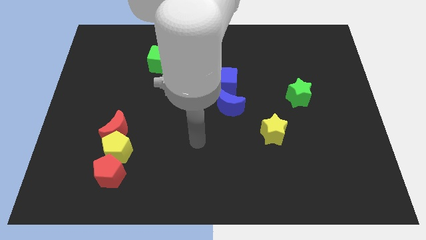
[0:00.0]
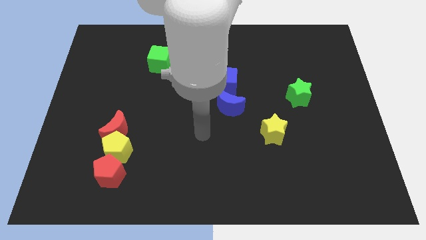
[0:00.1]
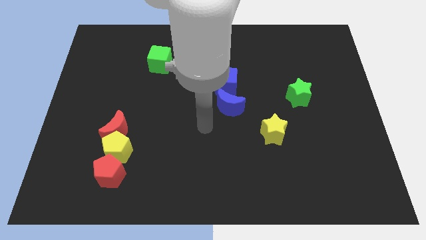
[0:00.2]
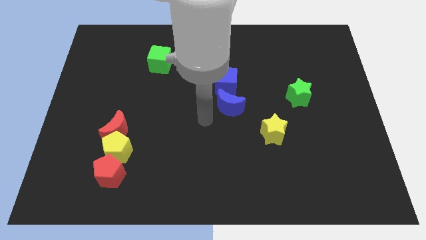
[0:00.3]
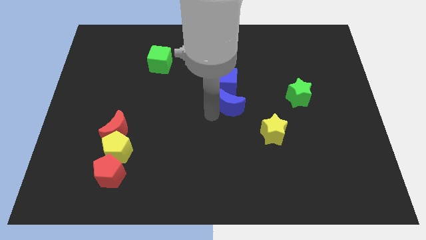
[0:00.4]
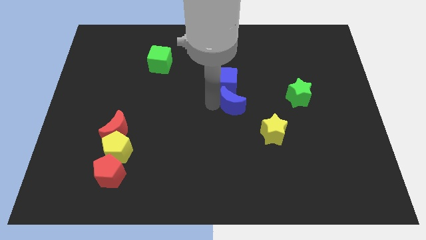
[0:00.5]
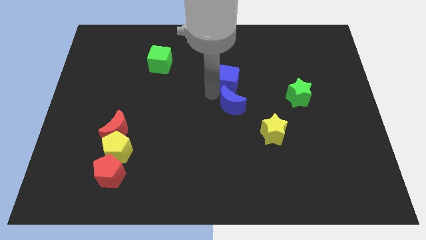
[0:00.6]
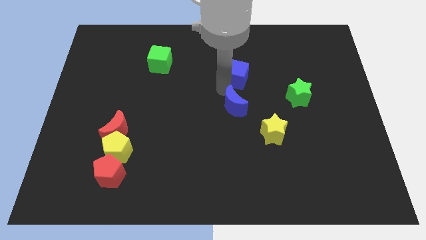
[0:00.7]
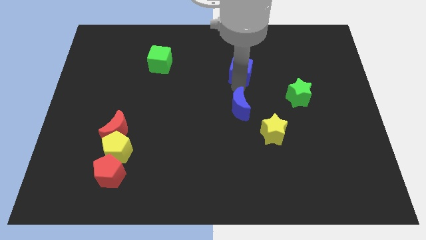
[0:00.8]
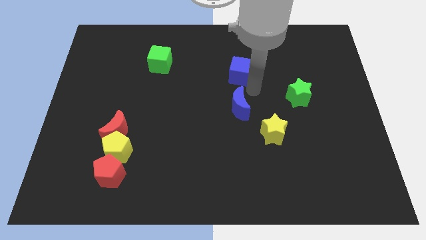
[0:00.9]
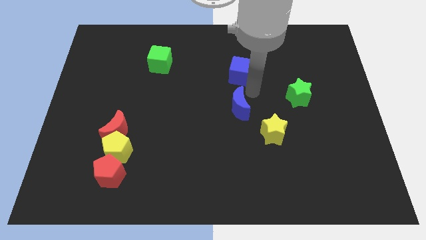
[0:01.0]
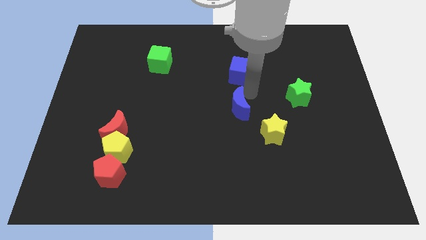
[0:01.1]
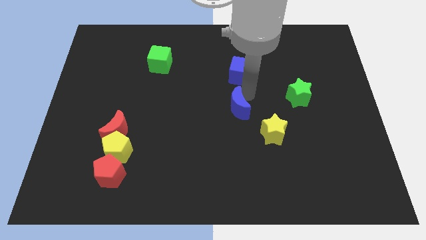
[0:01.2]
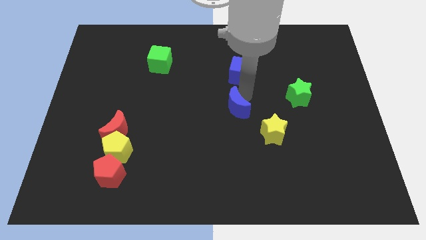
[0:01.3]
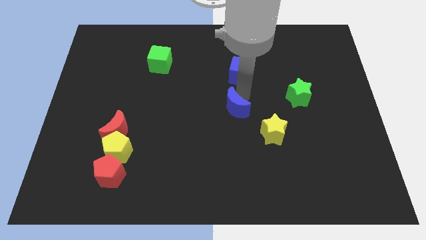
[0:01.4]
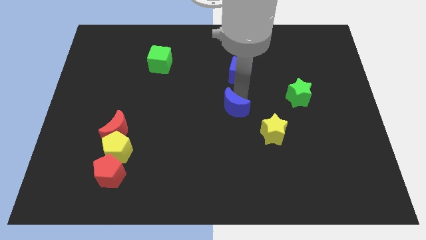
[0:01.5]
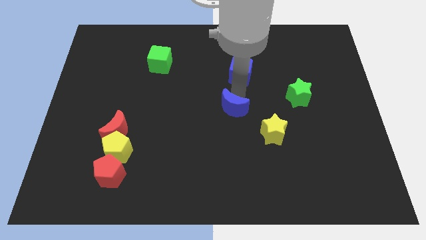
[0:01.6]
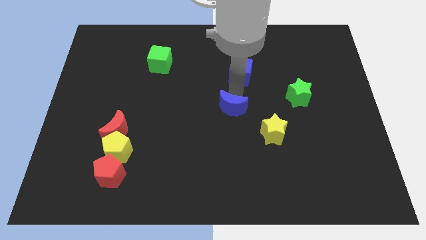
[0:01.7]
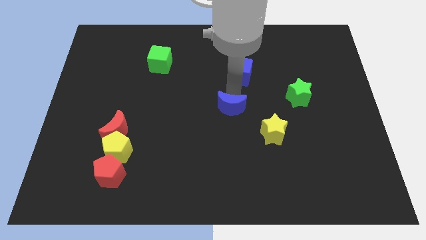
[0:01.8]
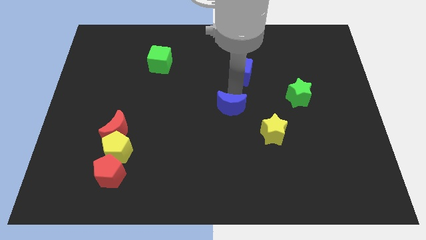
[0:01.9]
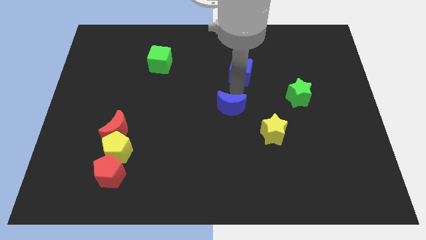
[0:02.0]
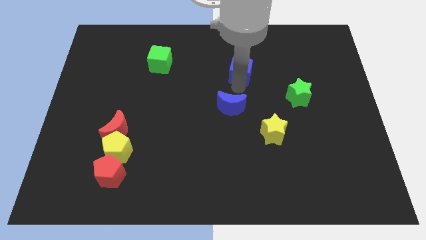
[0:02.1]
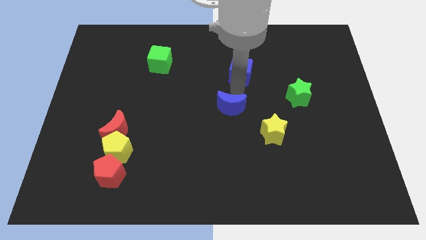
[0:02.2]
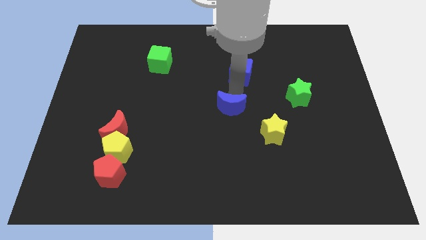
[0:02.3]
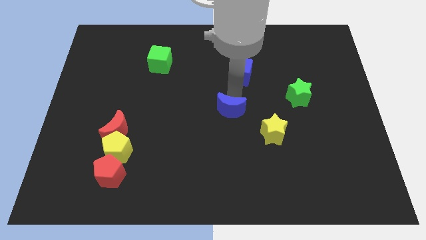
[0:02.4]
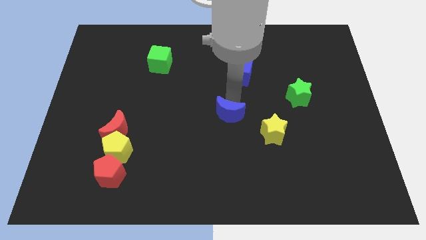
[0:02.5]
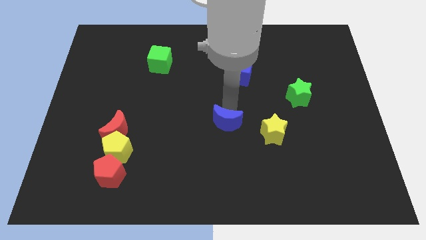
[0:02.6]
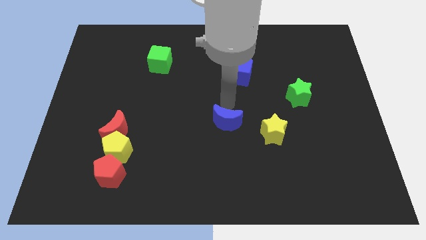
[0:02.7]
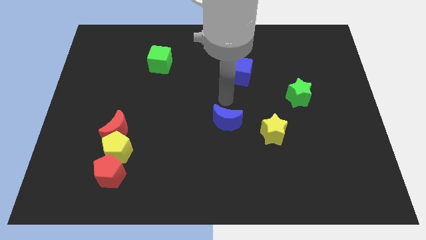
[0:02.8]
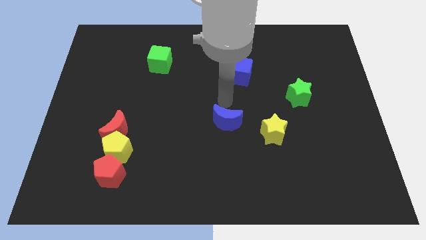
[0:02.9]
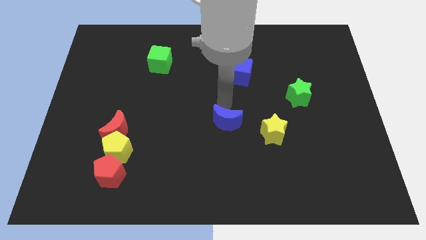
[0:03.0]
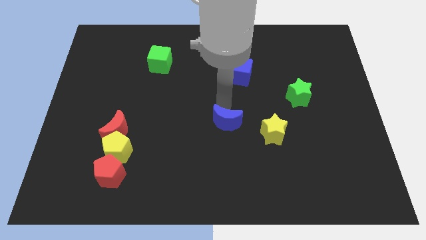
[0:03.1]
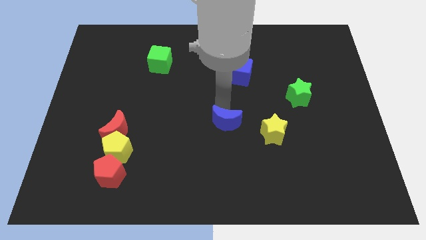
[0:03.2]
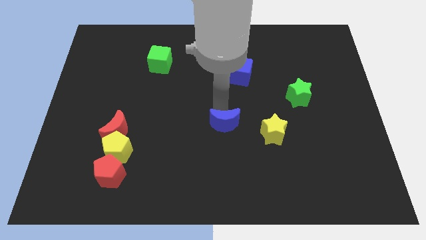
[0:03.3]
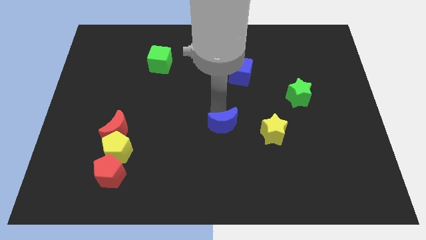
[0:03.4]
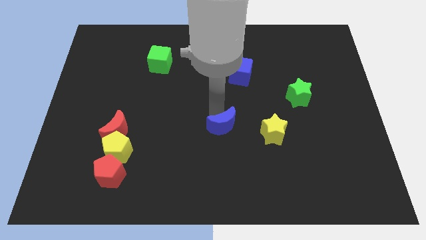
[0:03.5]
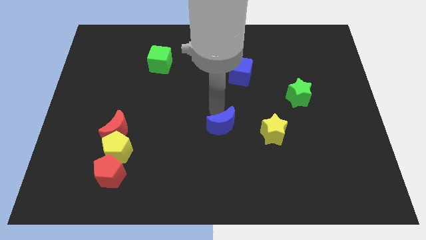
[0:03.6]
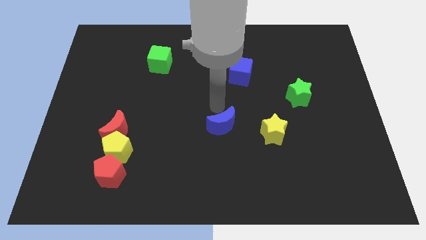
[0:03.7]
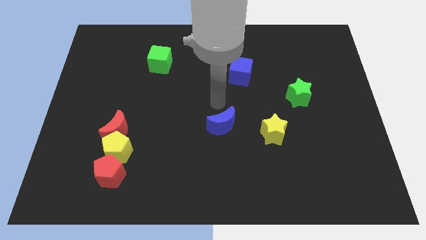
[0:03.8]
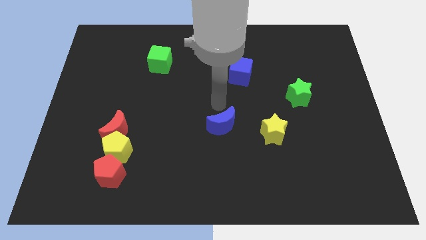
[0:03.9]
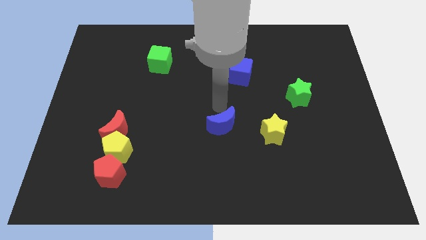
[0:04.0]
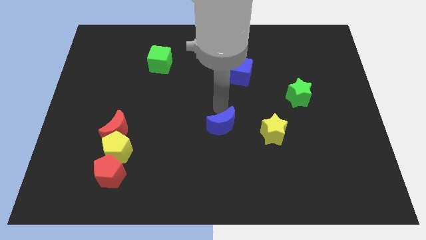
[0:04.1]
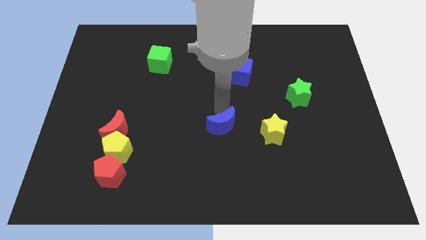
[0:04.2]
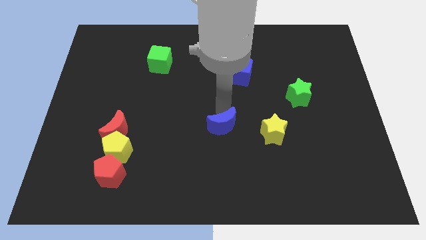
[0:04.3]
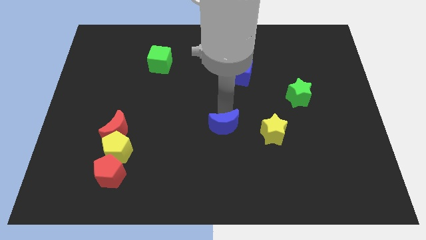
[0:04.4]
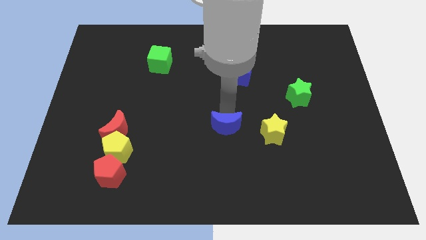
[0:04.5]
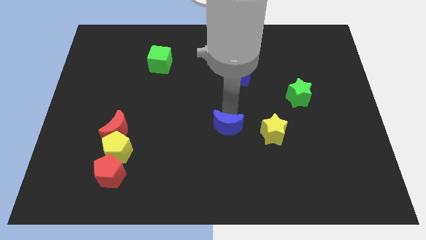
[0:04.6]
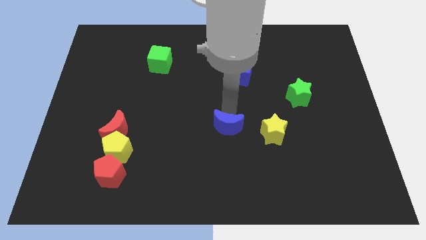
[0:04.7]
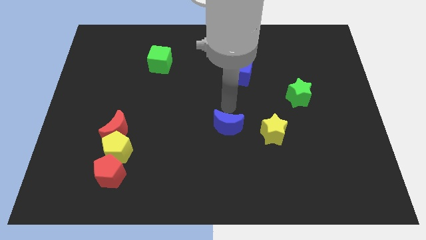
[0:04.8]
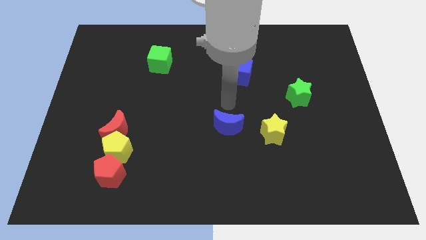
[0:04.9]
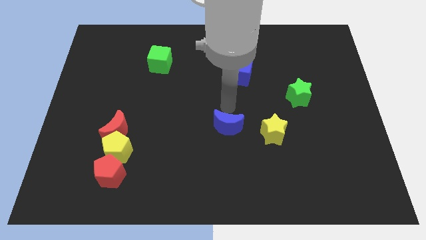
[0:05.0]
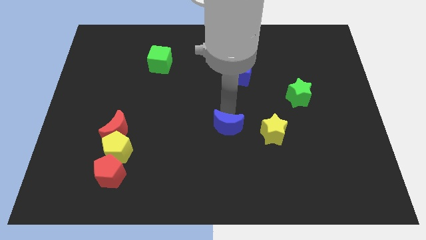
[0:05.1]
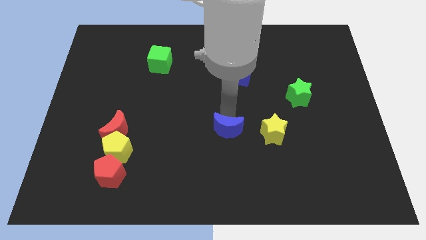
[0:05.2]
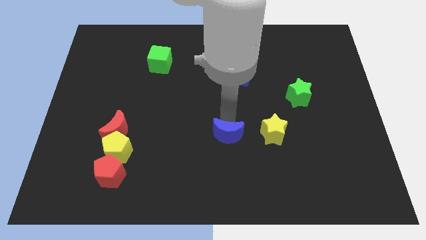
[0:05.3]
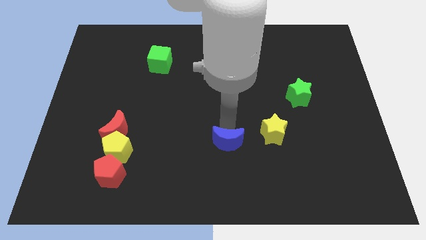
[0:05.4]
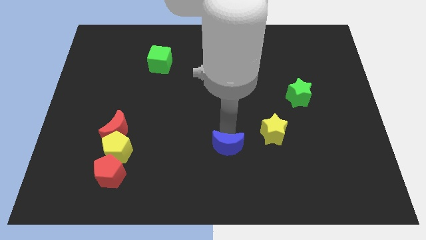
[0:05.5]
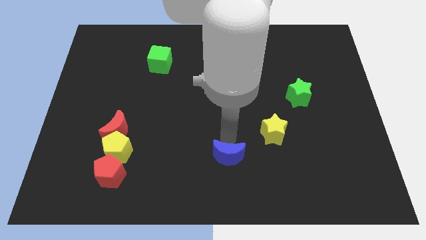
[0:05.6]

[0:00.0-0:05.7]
push the blue moon to the bottom

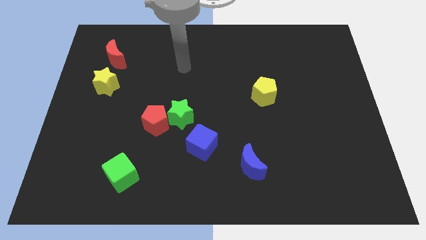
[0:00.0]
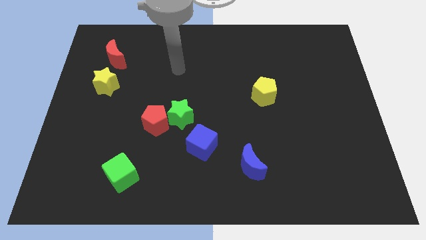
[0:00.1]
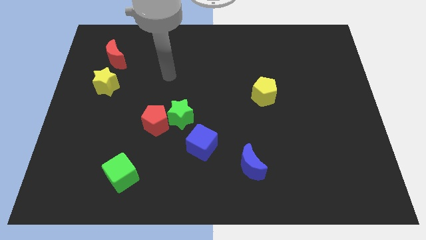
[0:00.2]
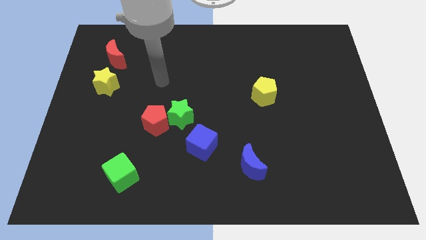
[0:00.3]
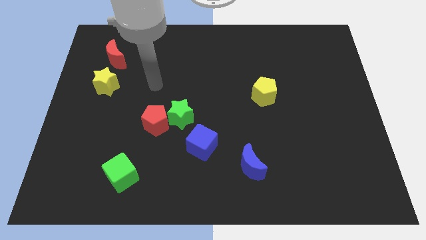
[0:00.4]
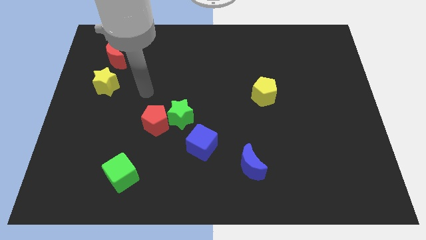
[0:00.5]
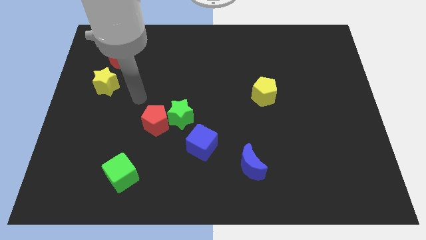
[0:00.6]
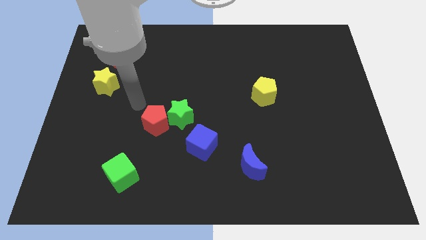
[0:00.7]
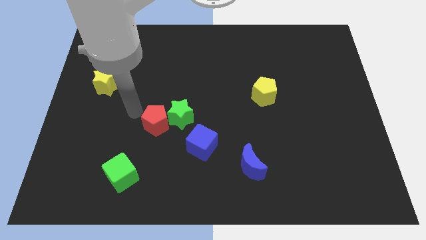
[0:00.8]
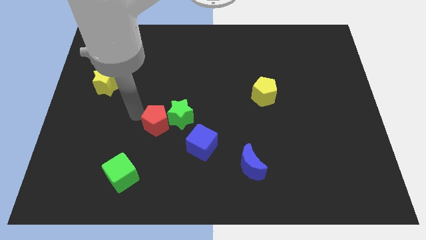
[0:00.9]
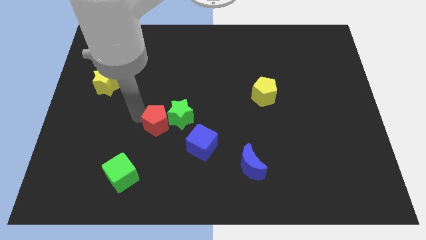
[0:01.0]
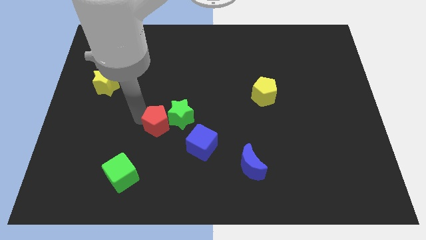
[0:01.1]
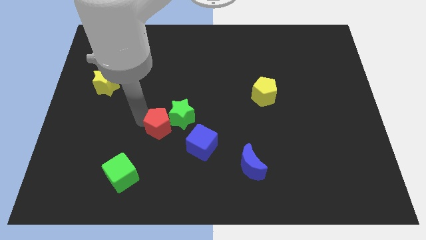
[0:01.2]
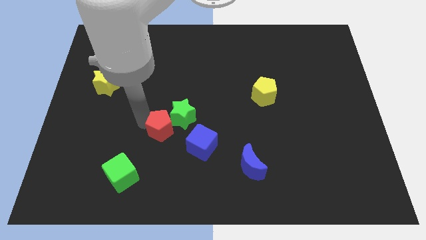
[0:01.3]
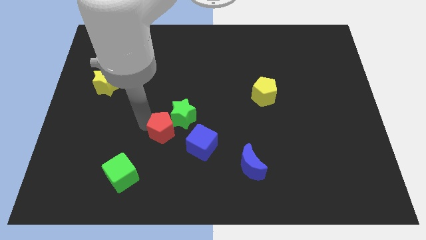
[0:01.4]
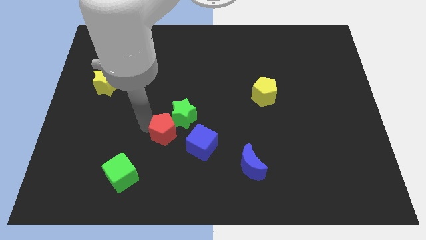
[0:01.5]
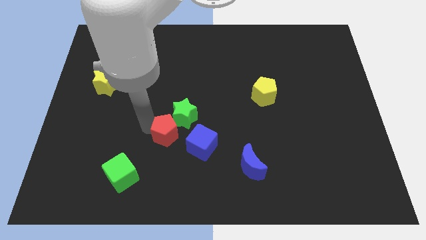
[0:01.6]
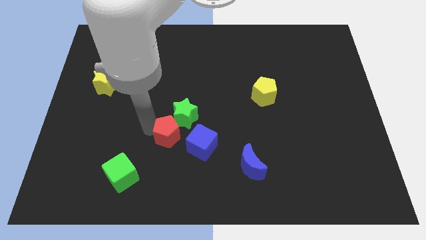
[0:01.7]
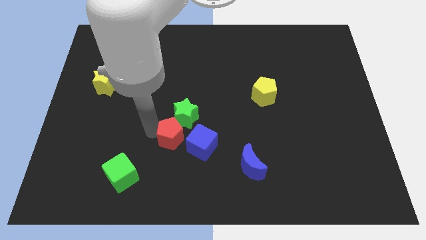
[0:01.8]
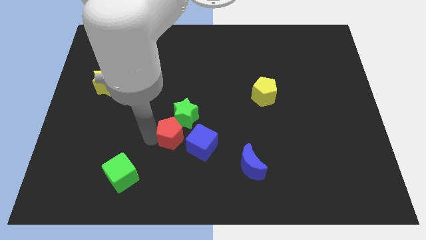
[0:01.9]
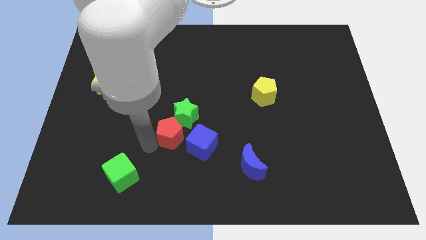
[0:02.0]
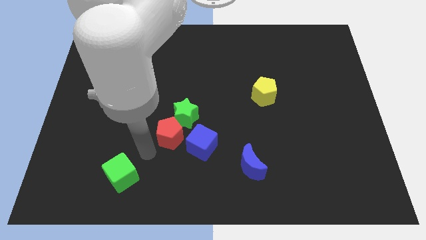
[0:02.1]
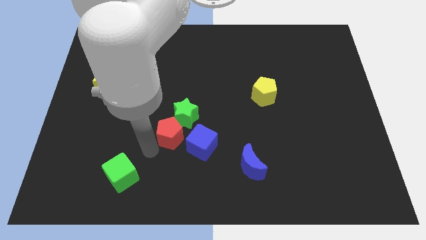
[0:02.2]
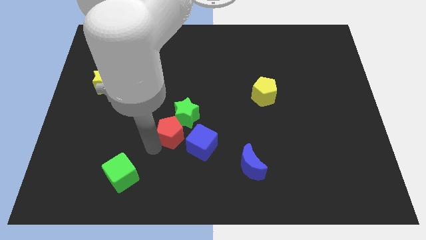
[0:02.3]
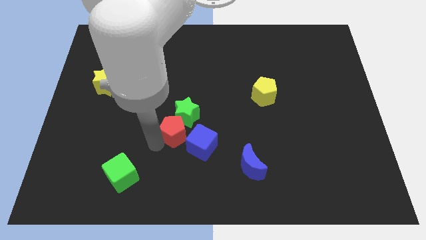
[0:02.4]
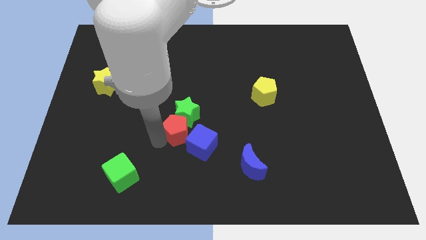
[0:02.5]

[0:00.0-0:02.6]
push the red pentagon to the middle
